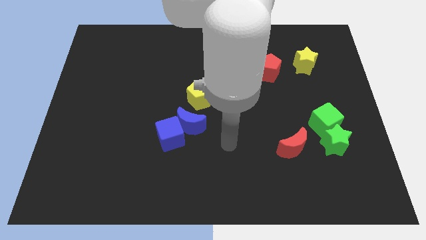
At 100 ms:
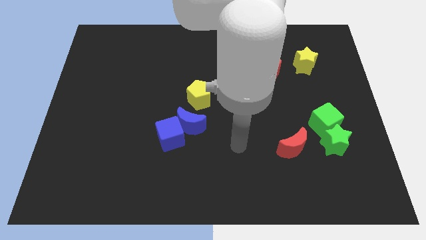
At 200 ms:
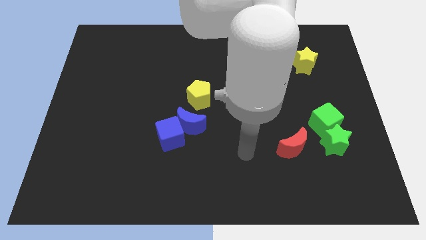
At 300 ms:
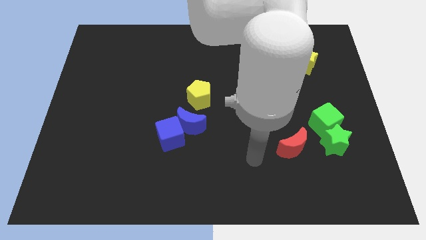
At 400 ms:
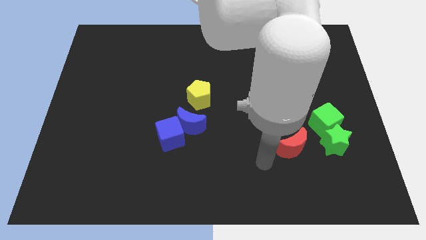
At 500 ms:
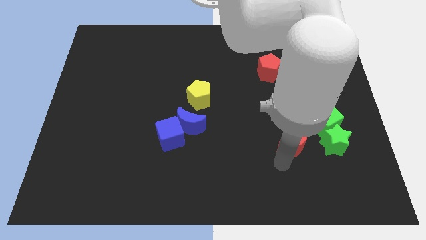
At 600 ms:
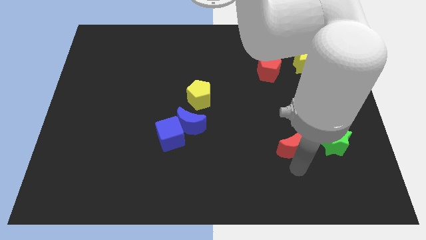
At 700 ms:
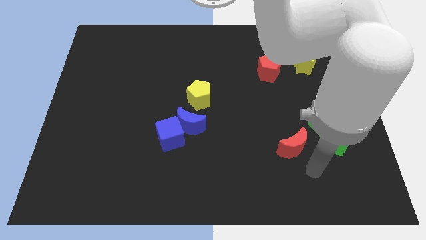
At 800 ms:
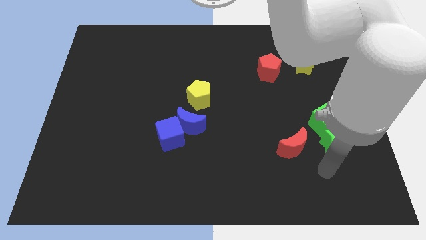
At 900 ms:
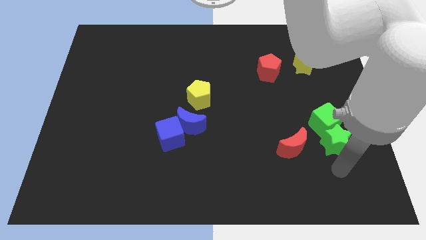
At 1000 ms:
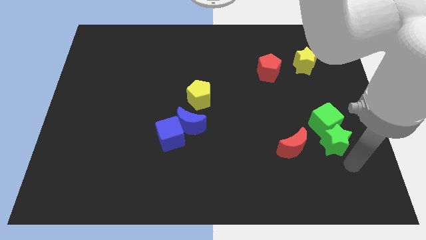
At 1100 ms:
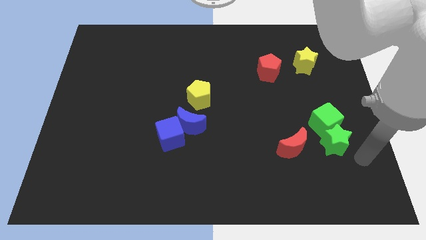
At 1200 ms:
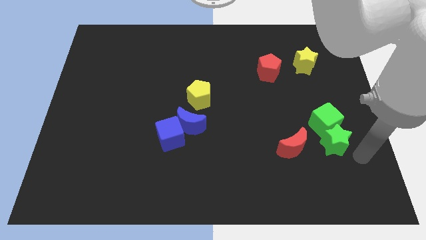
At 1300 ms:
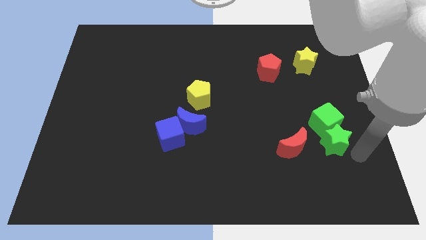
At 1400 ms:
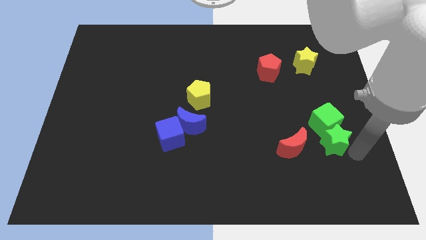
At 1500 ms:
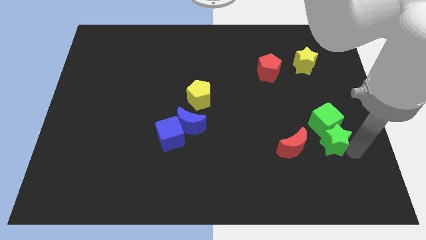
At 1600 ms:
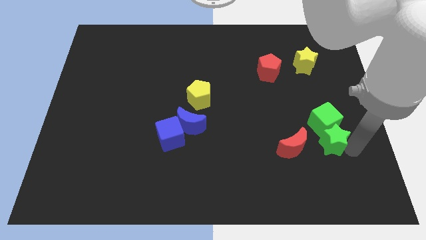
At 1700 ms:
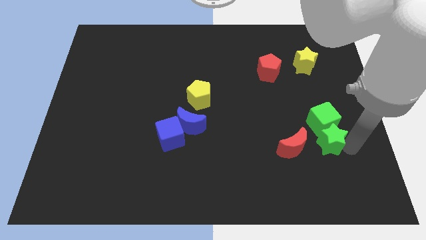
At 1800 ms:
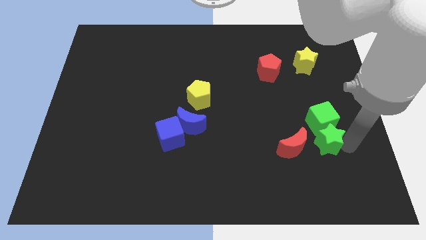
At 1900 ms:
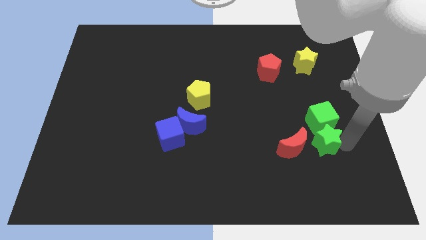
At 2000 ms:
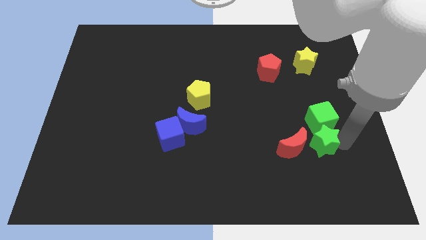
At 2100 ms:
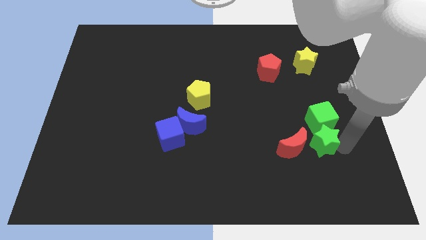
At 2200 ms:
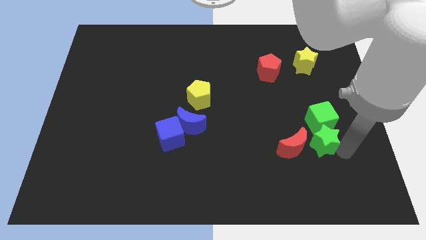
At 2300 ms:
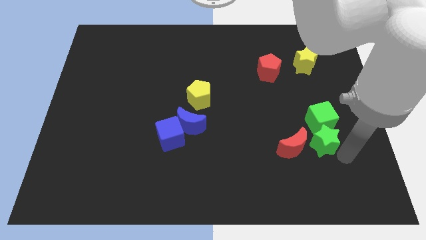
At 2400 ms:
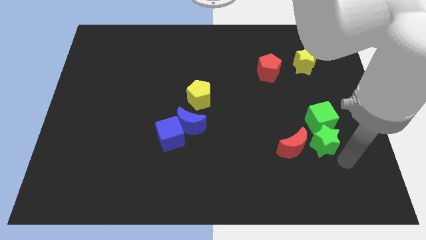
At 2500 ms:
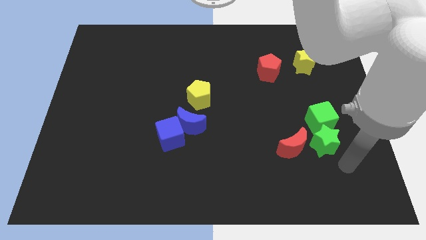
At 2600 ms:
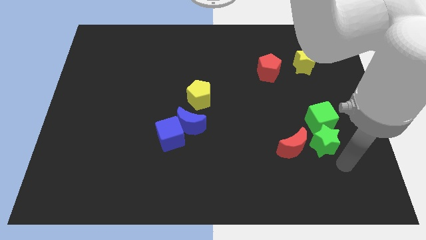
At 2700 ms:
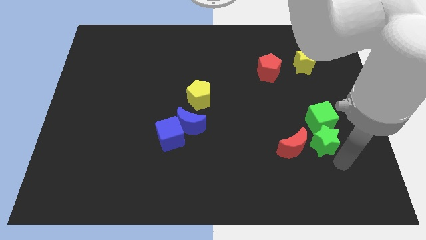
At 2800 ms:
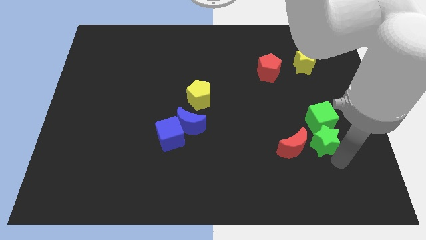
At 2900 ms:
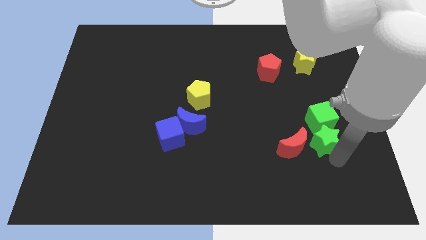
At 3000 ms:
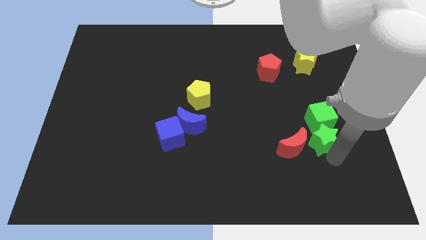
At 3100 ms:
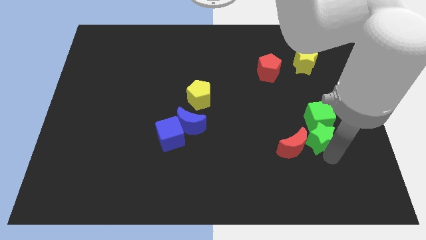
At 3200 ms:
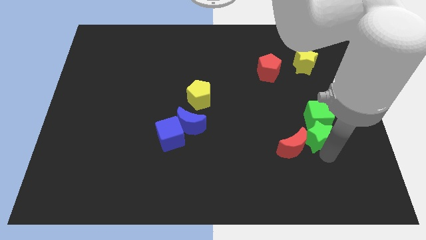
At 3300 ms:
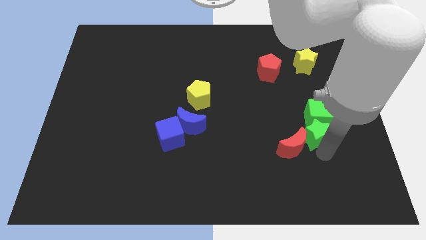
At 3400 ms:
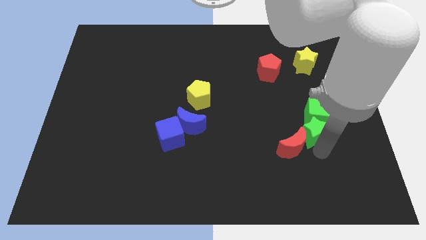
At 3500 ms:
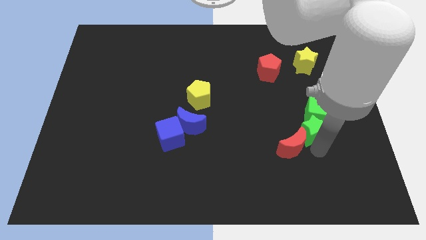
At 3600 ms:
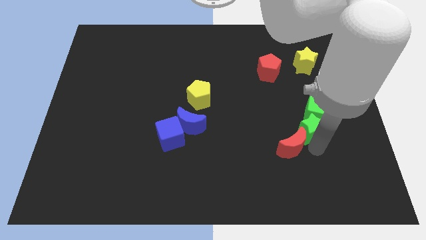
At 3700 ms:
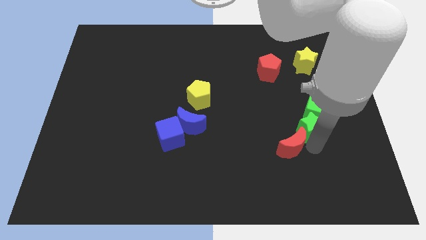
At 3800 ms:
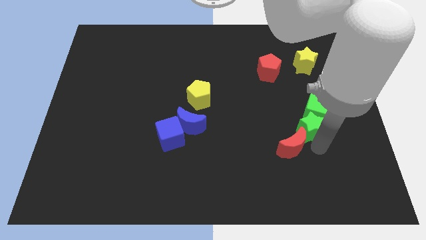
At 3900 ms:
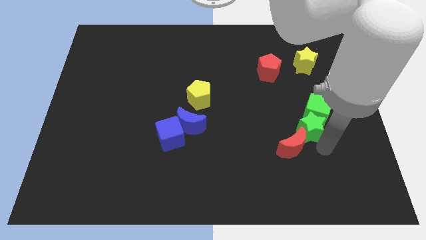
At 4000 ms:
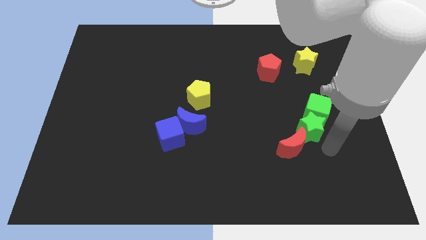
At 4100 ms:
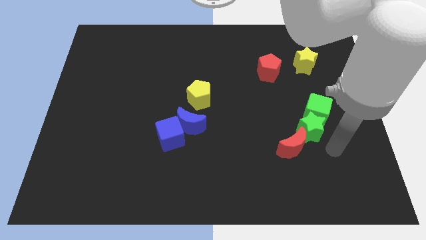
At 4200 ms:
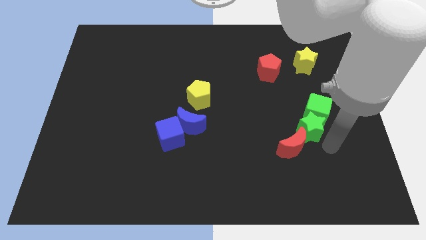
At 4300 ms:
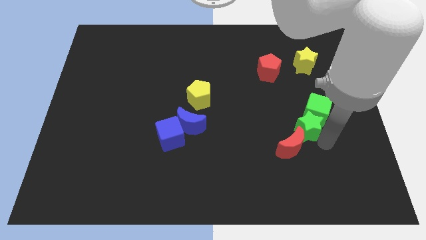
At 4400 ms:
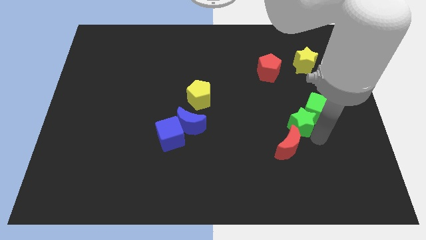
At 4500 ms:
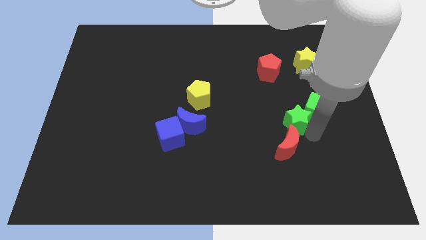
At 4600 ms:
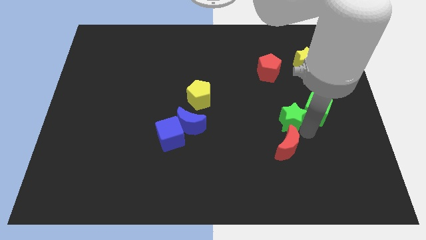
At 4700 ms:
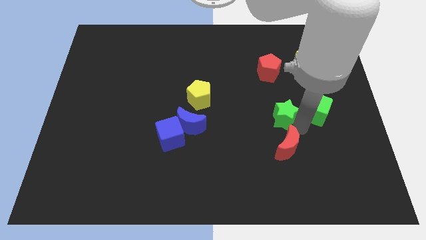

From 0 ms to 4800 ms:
move the green star to the bottom of the red pentagon

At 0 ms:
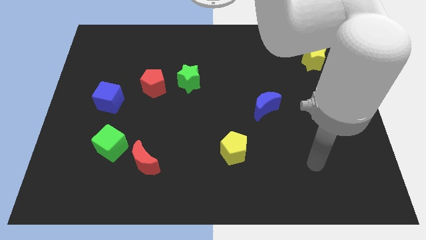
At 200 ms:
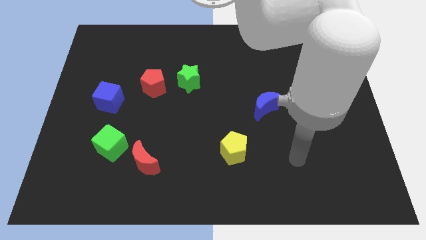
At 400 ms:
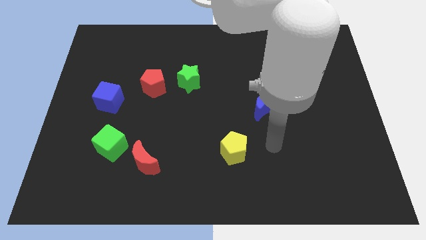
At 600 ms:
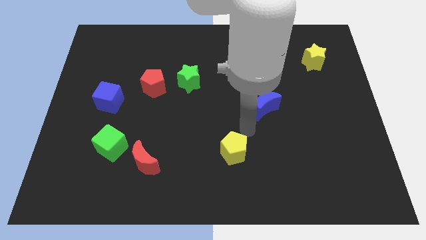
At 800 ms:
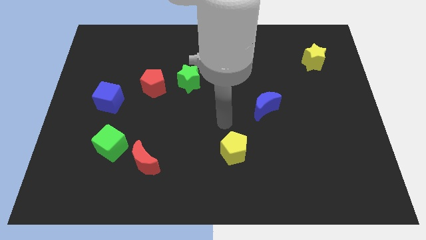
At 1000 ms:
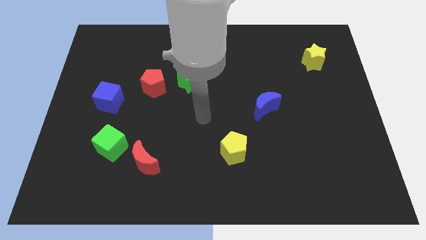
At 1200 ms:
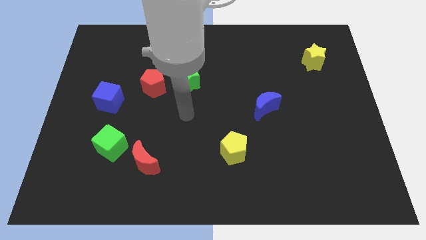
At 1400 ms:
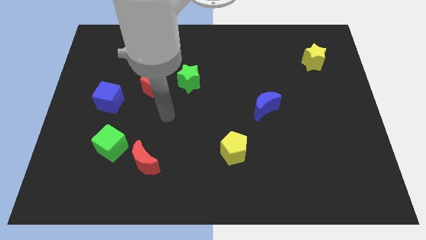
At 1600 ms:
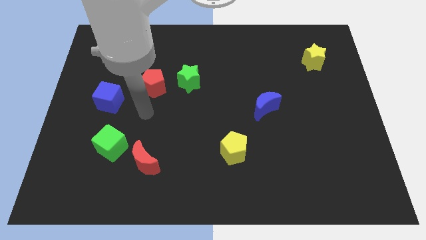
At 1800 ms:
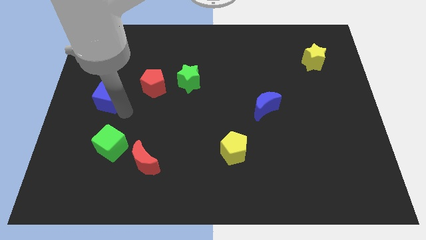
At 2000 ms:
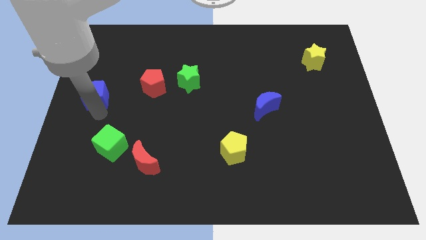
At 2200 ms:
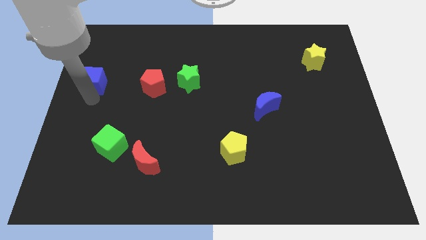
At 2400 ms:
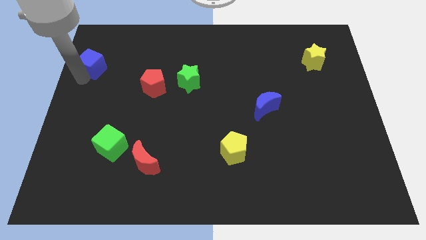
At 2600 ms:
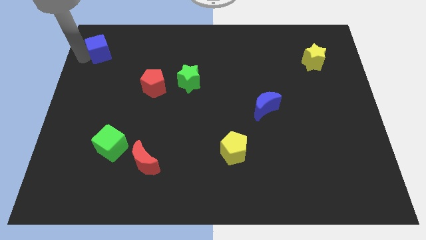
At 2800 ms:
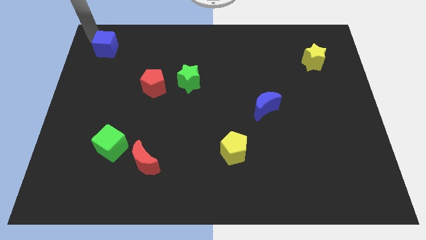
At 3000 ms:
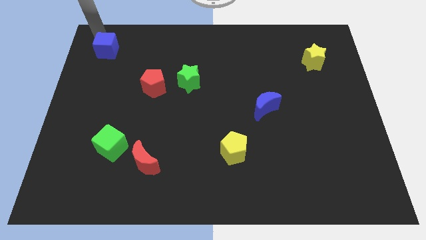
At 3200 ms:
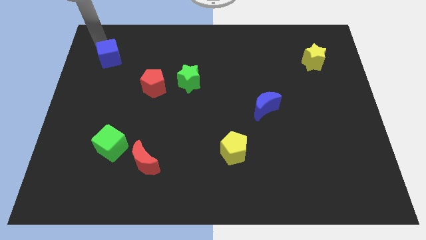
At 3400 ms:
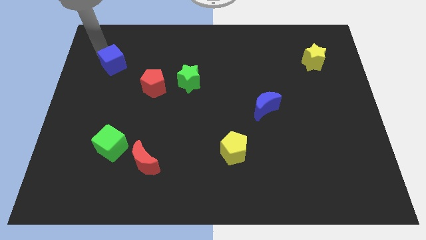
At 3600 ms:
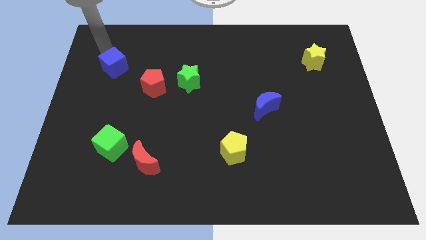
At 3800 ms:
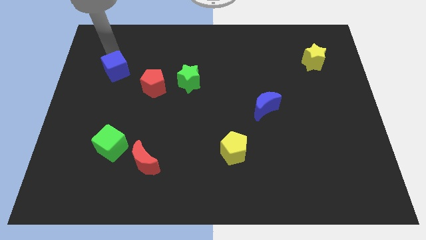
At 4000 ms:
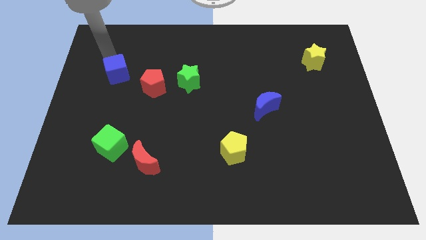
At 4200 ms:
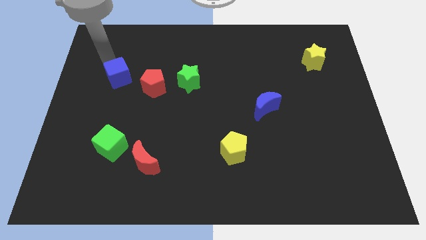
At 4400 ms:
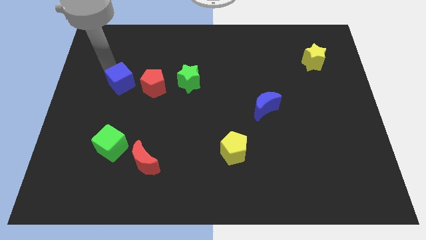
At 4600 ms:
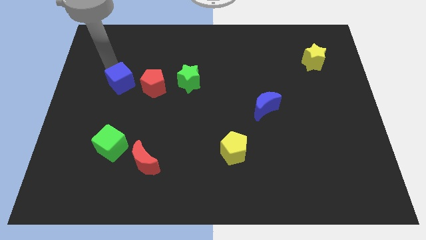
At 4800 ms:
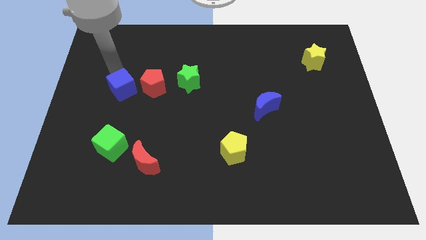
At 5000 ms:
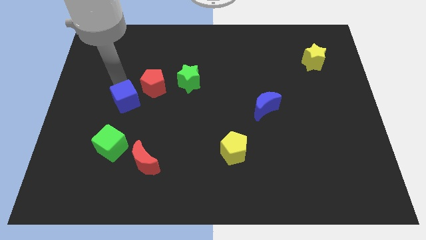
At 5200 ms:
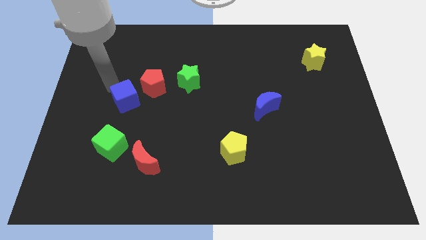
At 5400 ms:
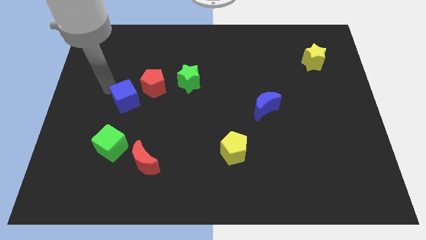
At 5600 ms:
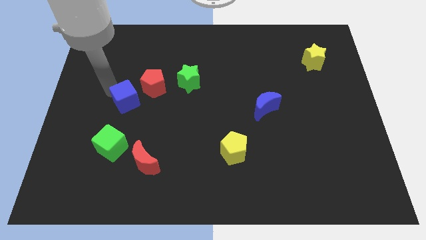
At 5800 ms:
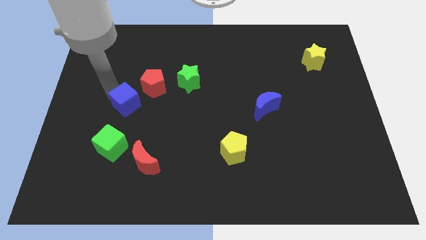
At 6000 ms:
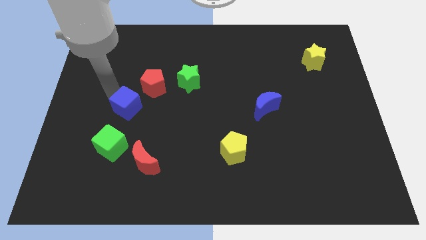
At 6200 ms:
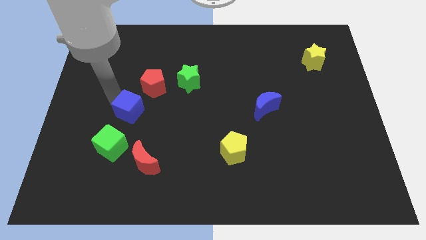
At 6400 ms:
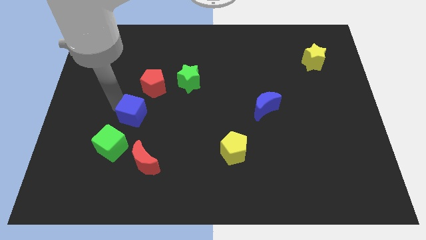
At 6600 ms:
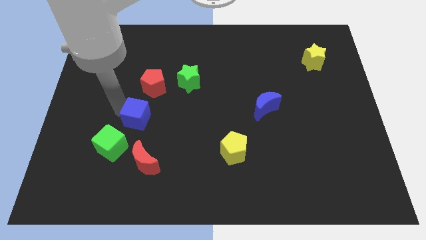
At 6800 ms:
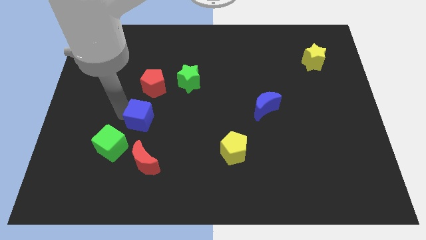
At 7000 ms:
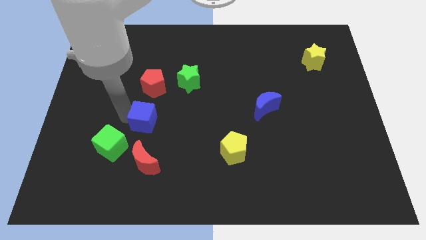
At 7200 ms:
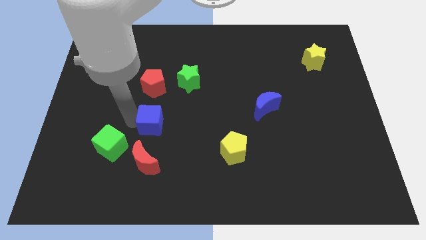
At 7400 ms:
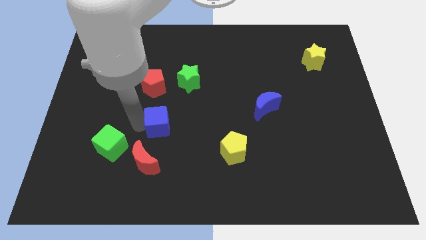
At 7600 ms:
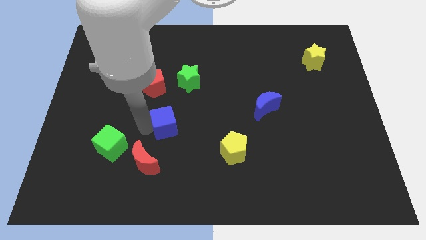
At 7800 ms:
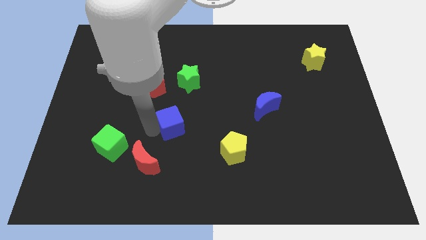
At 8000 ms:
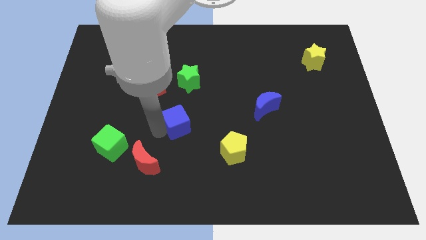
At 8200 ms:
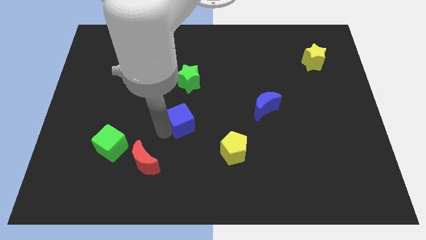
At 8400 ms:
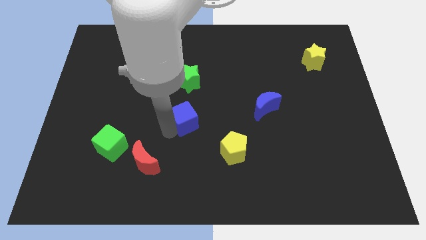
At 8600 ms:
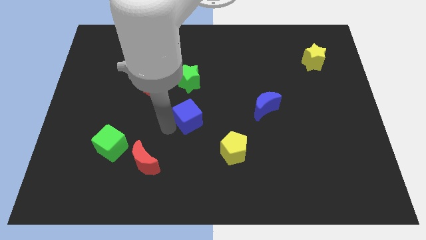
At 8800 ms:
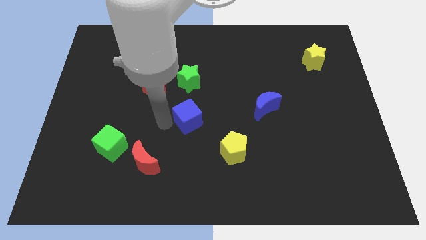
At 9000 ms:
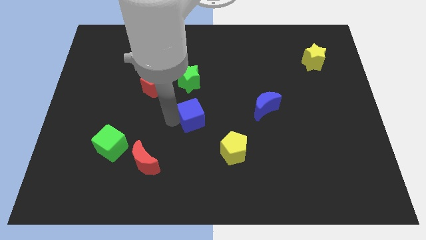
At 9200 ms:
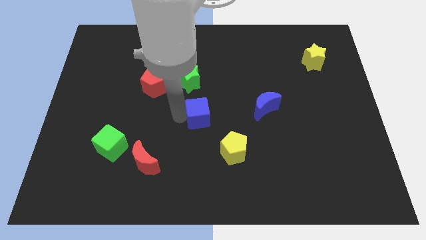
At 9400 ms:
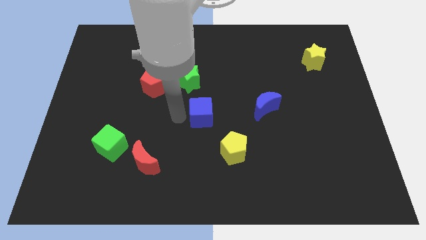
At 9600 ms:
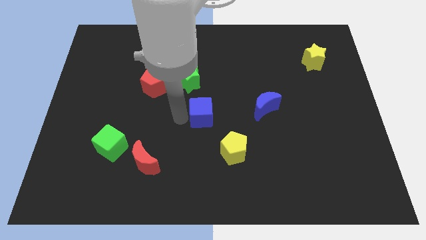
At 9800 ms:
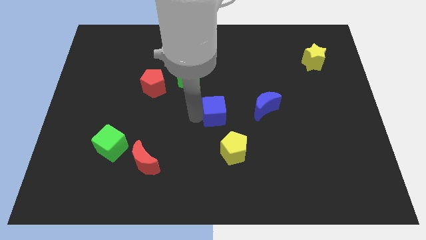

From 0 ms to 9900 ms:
put the blue cube above the yellow pentagon
